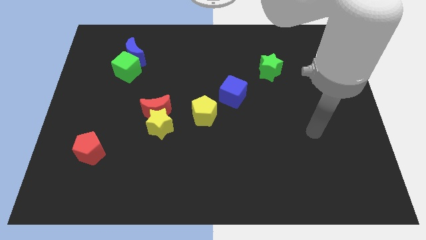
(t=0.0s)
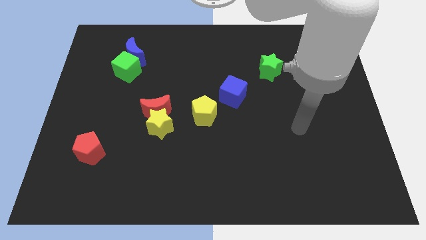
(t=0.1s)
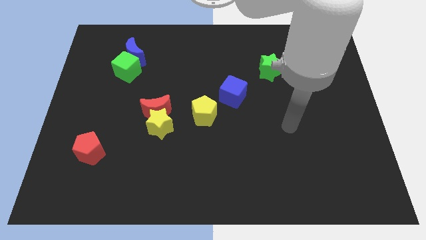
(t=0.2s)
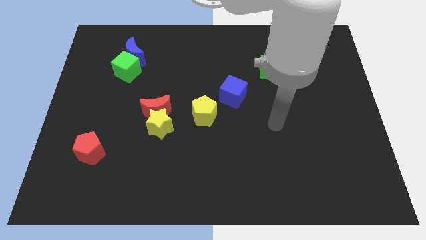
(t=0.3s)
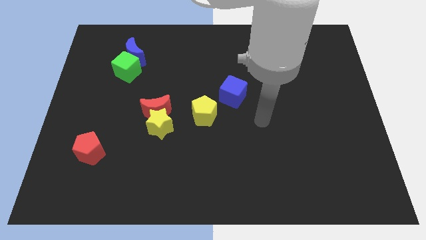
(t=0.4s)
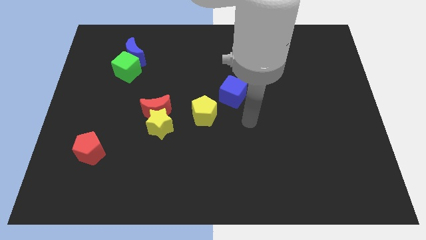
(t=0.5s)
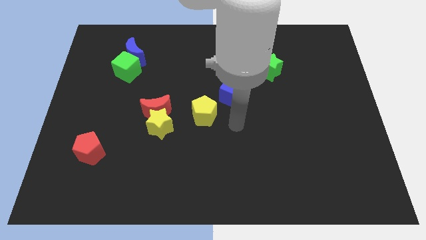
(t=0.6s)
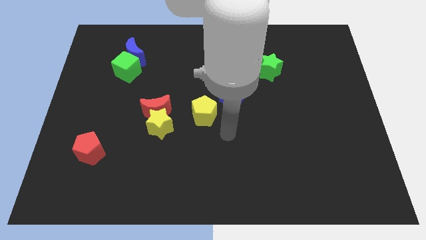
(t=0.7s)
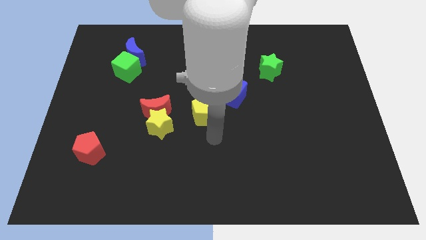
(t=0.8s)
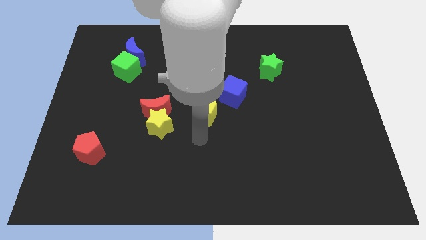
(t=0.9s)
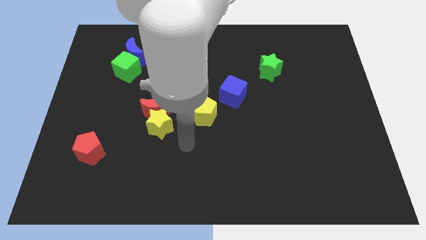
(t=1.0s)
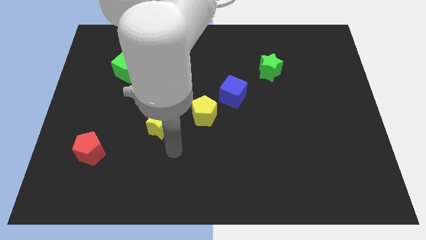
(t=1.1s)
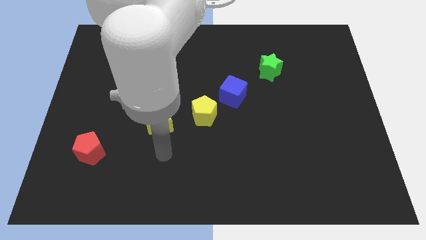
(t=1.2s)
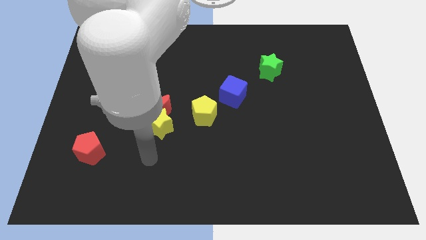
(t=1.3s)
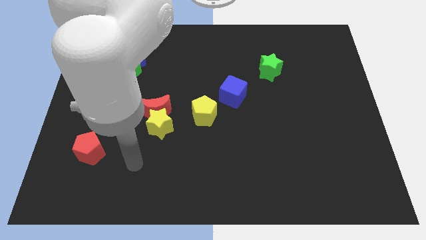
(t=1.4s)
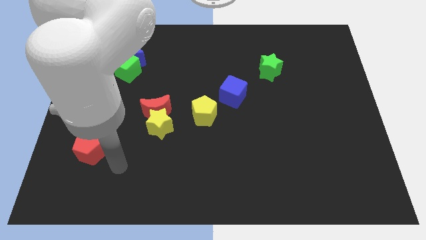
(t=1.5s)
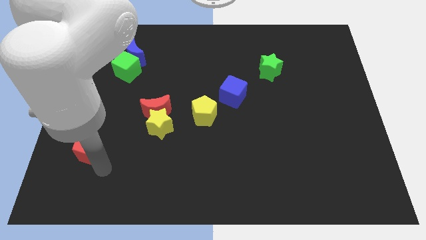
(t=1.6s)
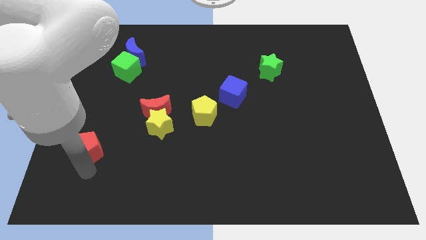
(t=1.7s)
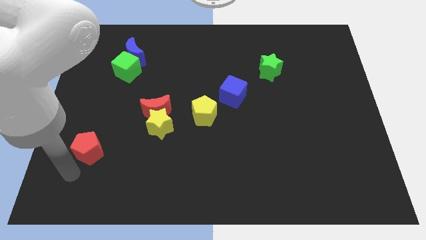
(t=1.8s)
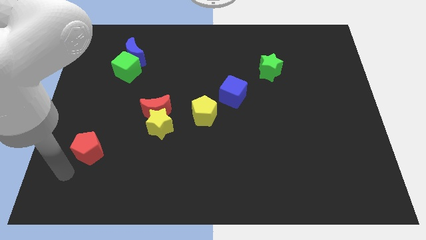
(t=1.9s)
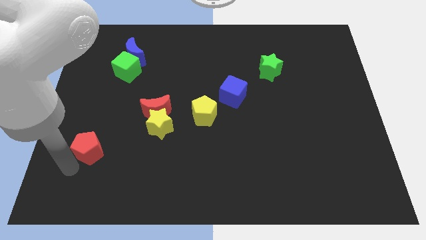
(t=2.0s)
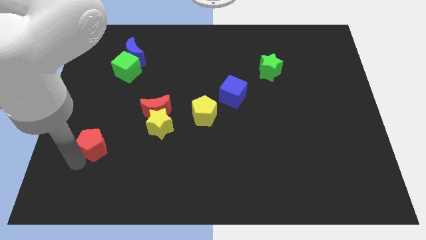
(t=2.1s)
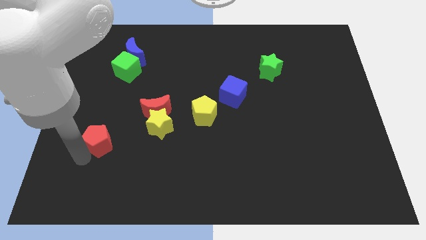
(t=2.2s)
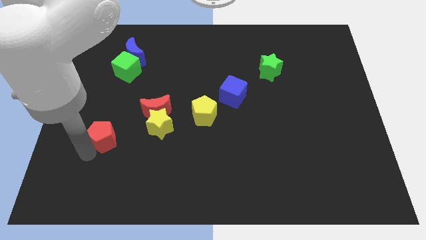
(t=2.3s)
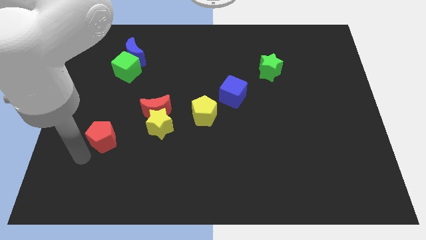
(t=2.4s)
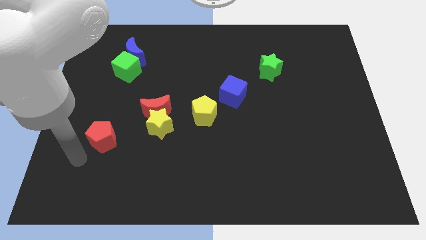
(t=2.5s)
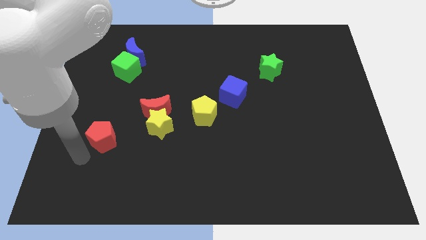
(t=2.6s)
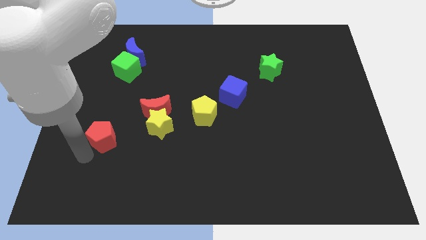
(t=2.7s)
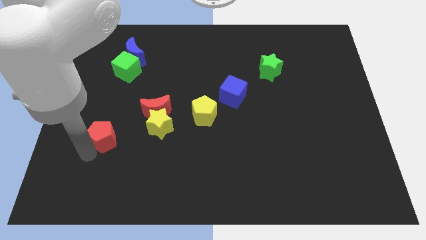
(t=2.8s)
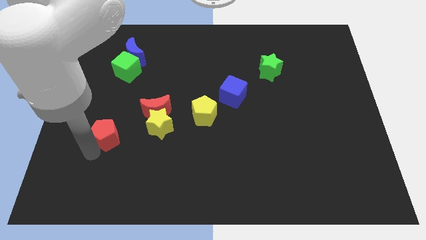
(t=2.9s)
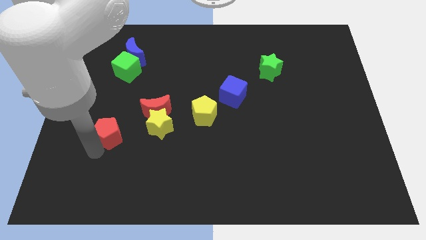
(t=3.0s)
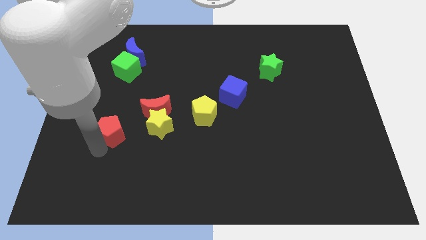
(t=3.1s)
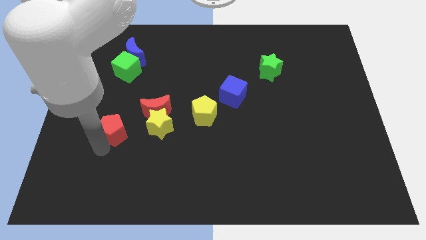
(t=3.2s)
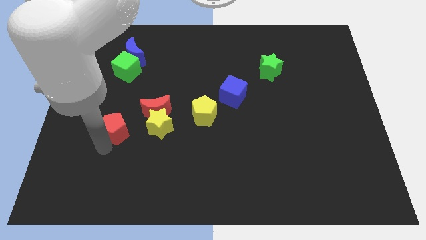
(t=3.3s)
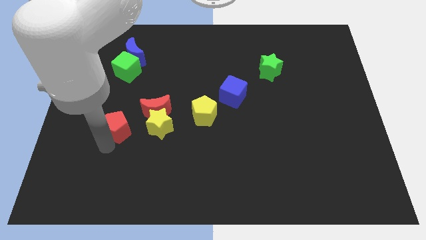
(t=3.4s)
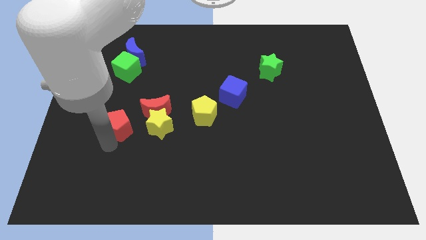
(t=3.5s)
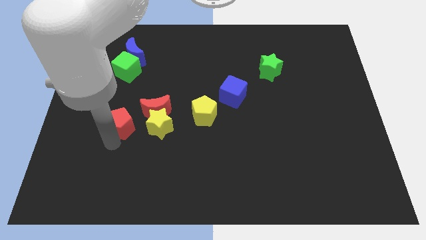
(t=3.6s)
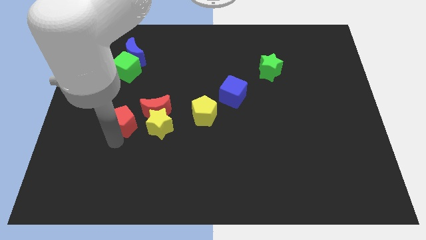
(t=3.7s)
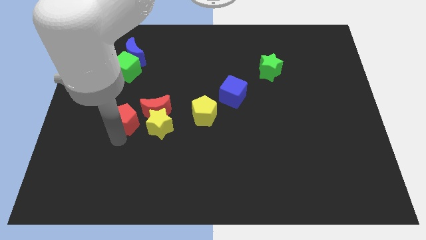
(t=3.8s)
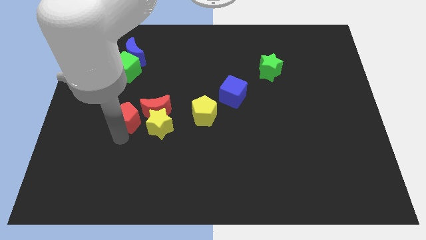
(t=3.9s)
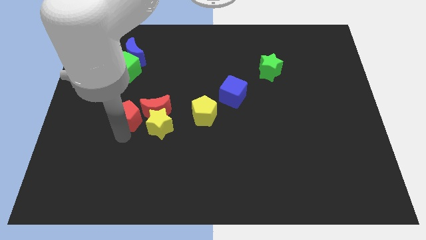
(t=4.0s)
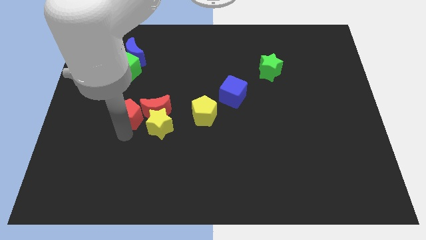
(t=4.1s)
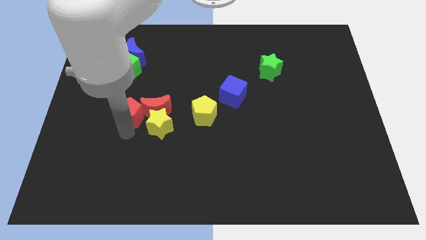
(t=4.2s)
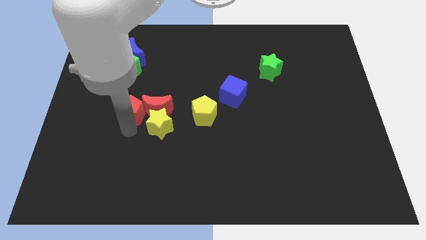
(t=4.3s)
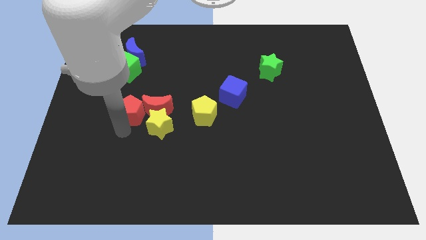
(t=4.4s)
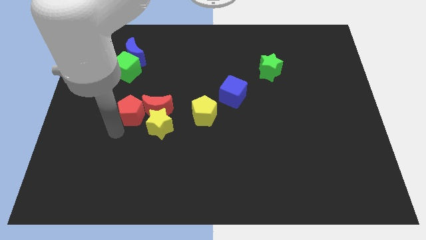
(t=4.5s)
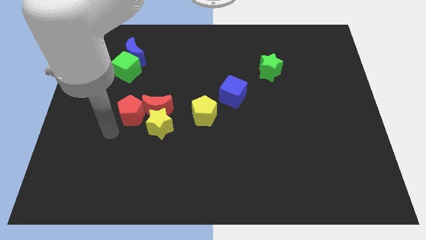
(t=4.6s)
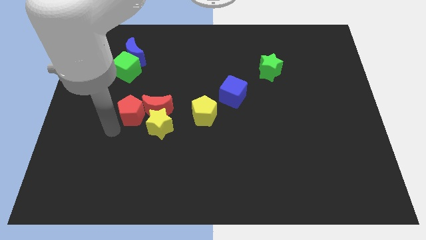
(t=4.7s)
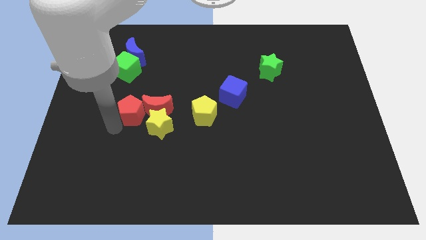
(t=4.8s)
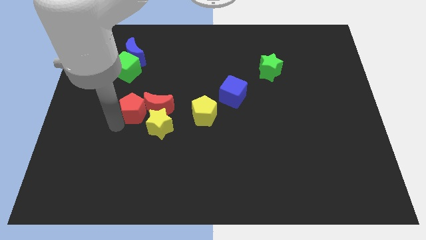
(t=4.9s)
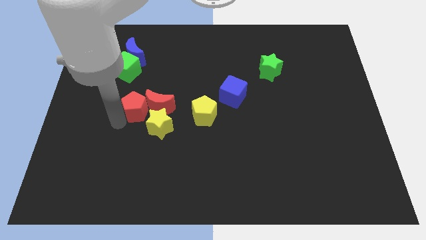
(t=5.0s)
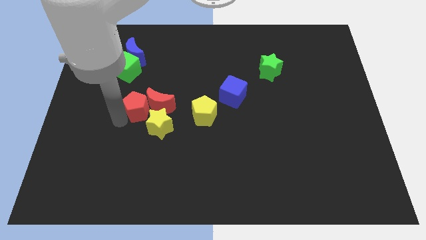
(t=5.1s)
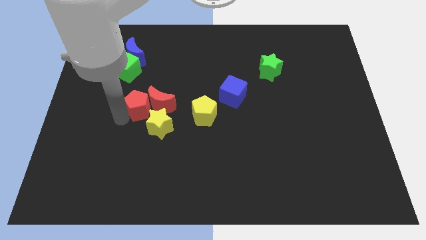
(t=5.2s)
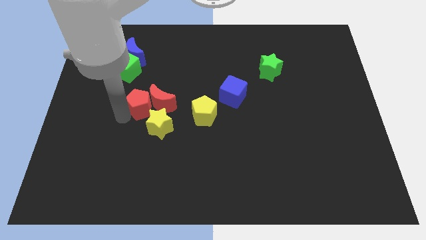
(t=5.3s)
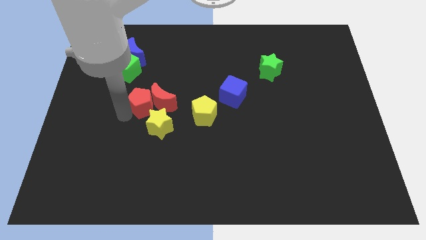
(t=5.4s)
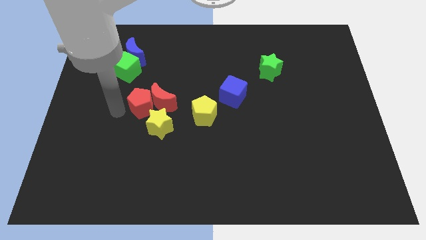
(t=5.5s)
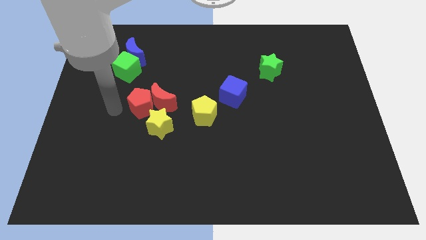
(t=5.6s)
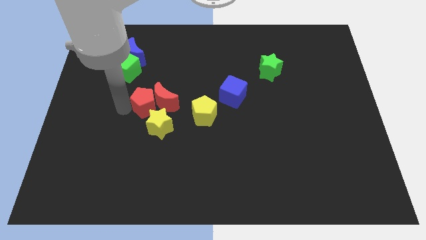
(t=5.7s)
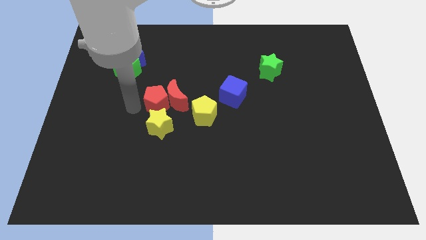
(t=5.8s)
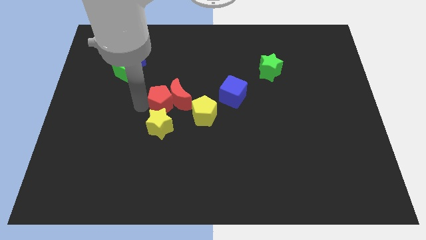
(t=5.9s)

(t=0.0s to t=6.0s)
push the red pentagon to the center of the board
